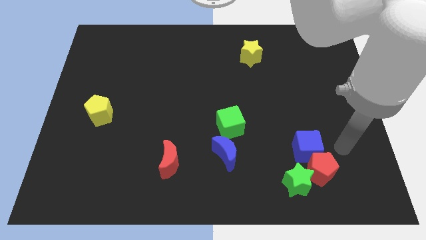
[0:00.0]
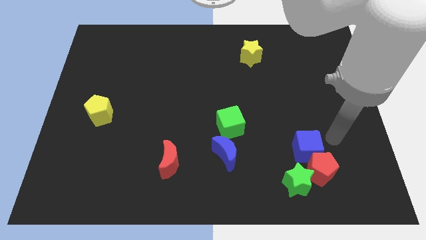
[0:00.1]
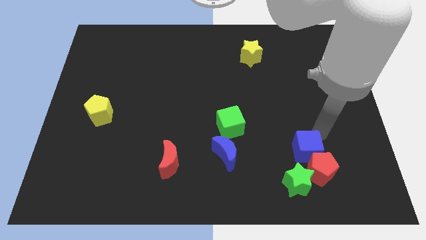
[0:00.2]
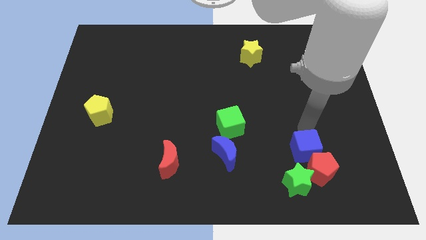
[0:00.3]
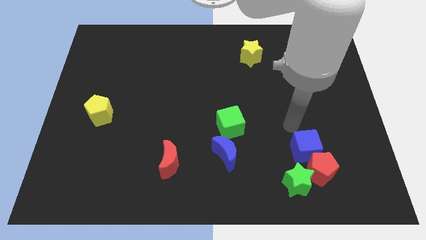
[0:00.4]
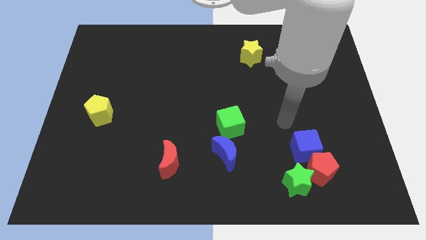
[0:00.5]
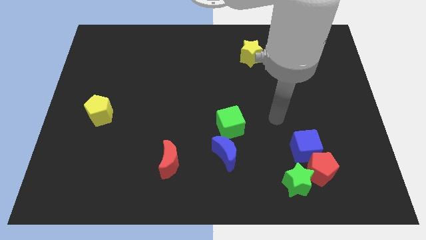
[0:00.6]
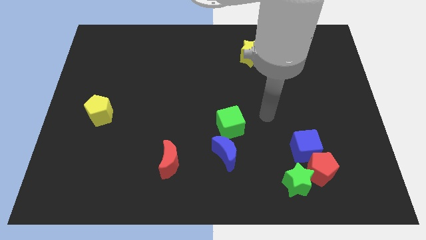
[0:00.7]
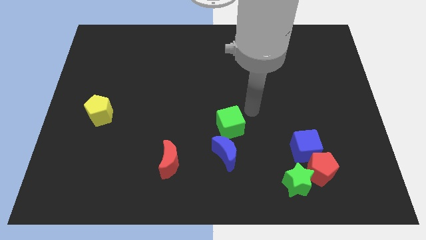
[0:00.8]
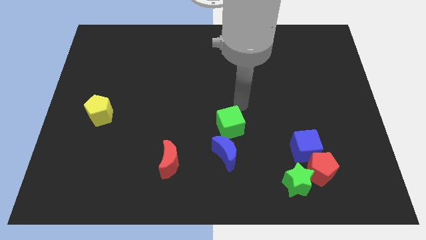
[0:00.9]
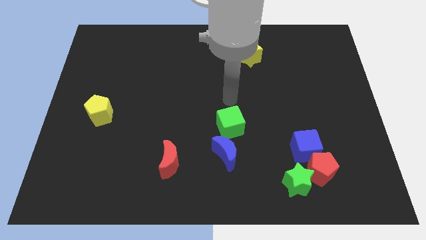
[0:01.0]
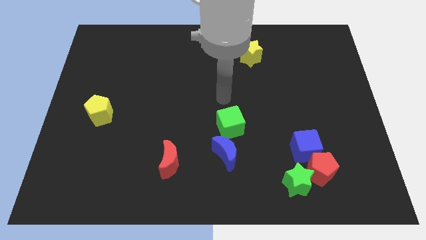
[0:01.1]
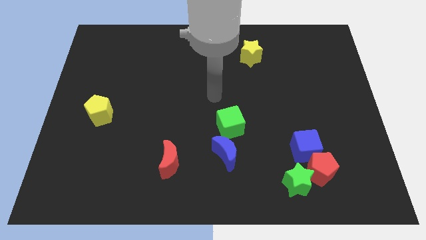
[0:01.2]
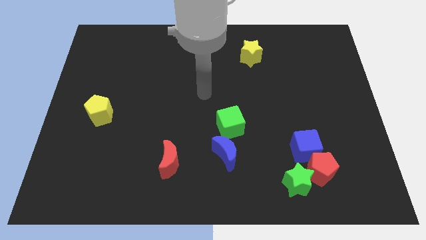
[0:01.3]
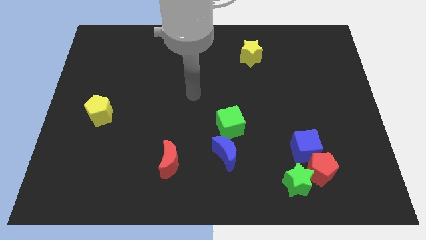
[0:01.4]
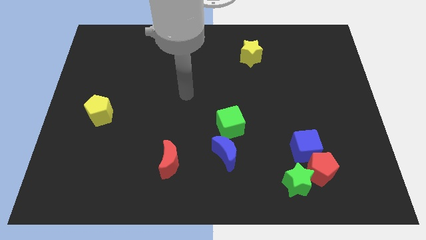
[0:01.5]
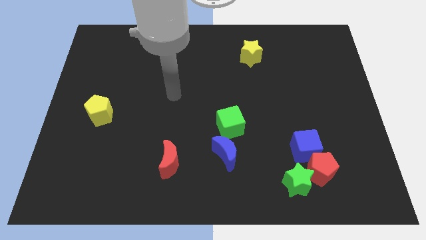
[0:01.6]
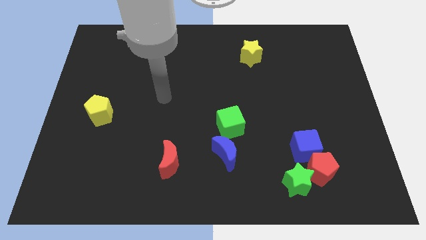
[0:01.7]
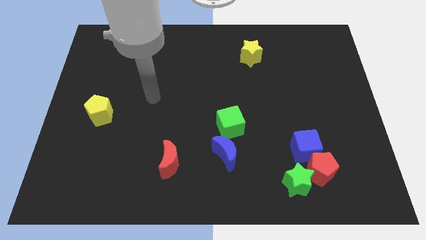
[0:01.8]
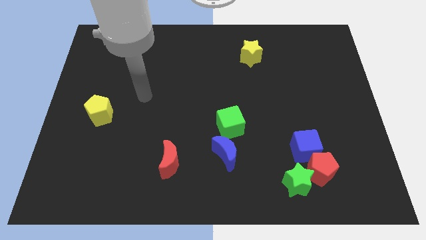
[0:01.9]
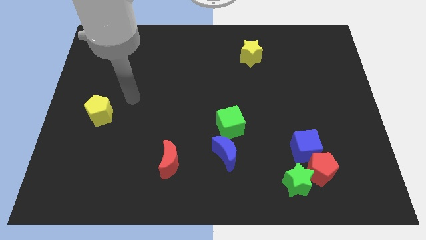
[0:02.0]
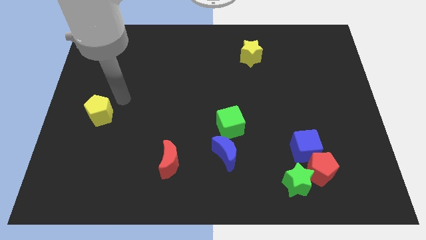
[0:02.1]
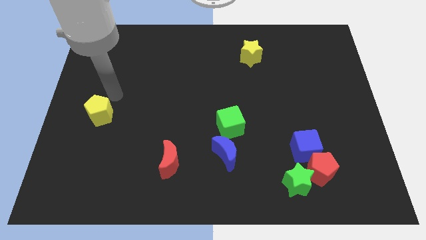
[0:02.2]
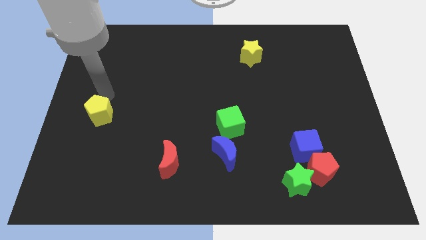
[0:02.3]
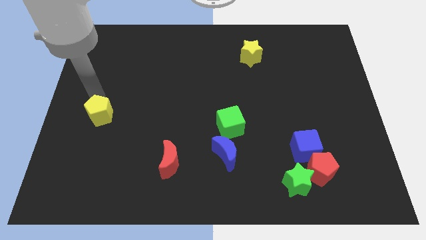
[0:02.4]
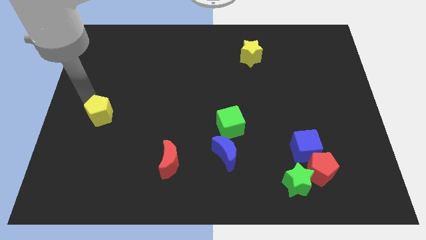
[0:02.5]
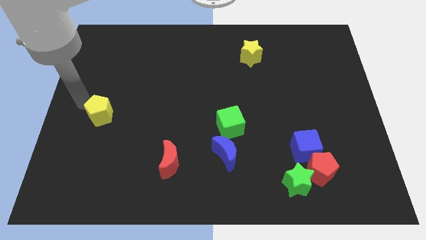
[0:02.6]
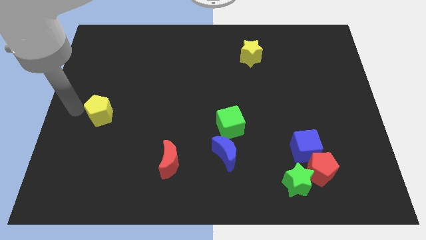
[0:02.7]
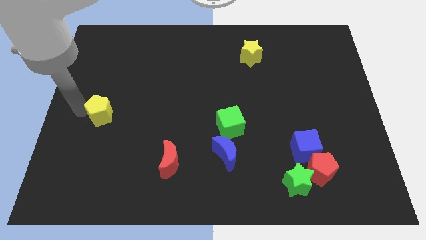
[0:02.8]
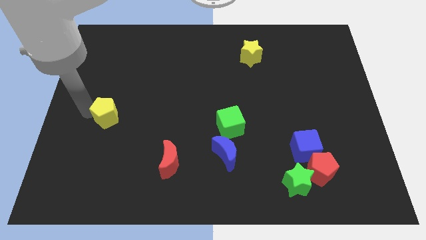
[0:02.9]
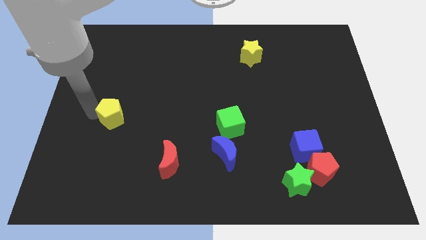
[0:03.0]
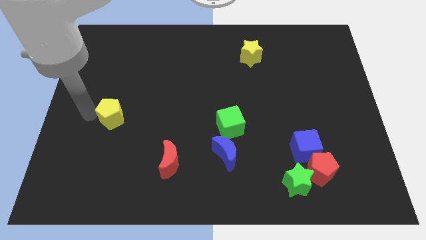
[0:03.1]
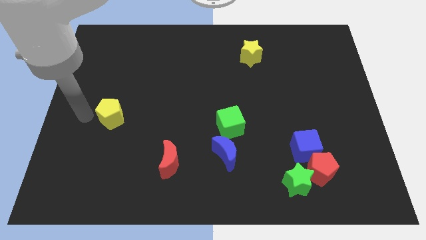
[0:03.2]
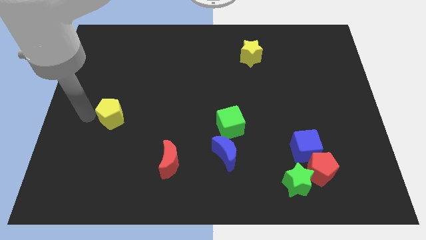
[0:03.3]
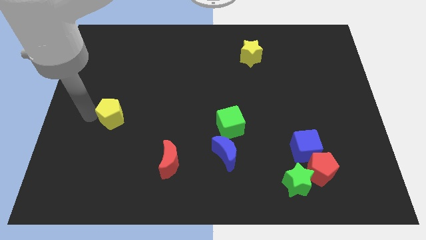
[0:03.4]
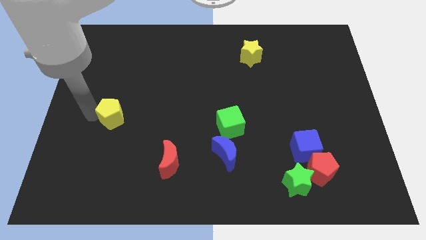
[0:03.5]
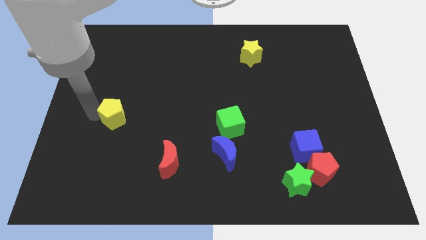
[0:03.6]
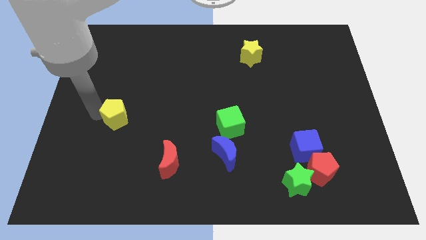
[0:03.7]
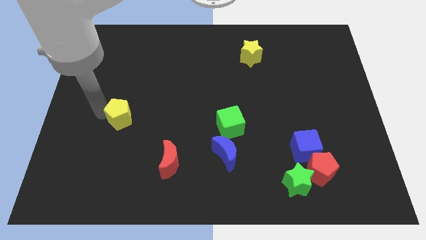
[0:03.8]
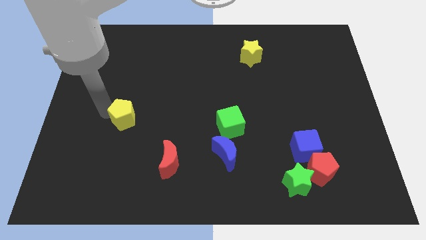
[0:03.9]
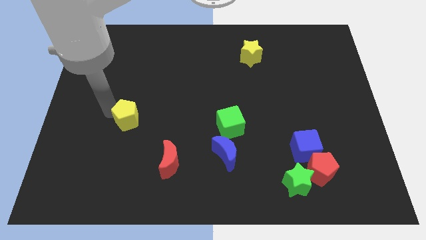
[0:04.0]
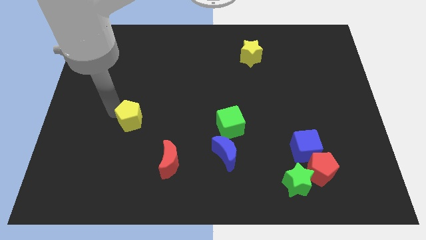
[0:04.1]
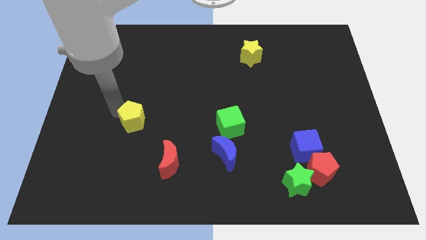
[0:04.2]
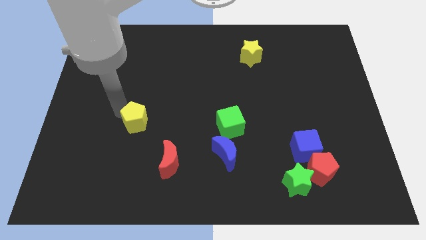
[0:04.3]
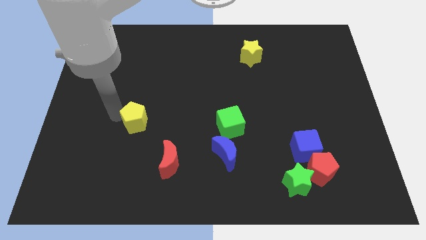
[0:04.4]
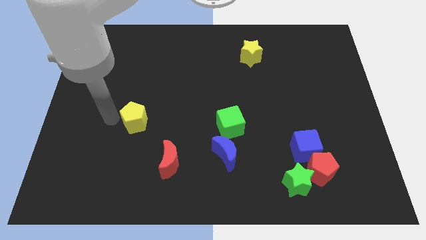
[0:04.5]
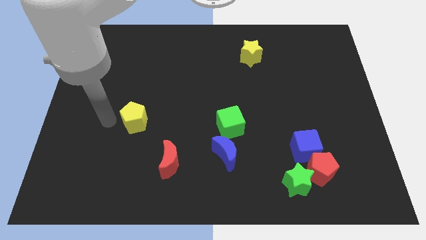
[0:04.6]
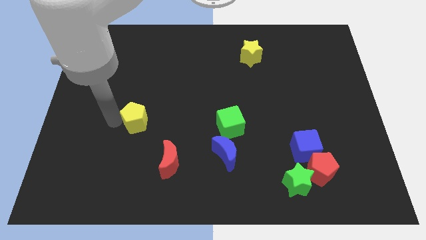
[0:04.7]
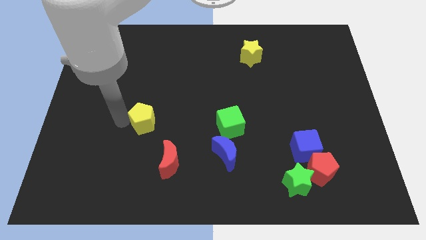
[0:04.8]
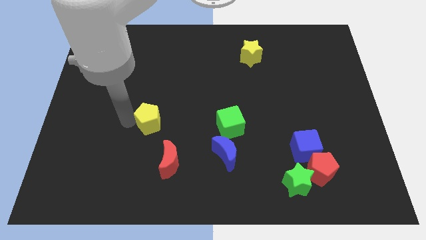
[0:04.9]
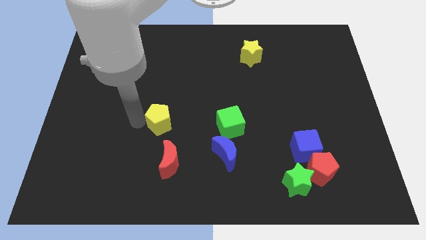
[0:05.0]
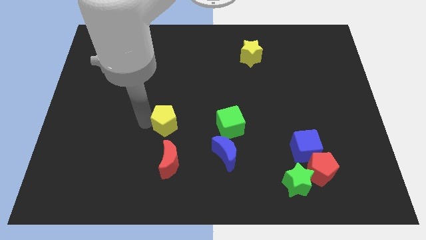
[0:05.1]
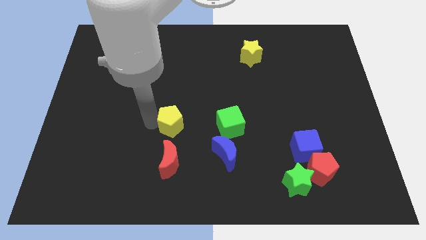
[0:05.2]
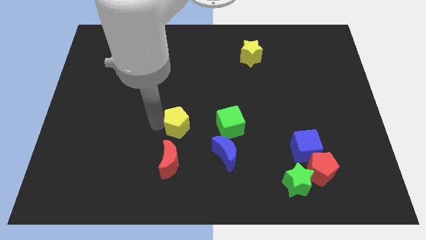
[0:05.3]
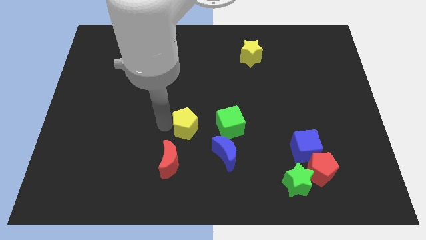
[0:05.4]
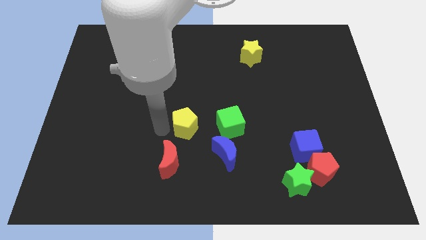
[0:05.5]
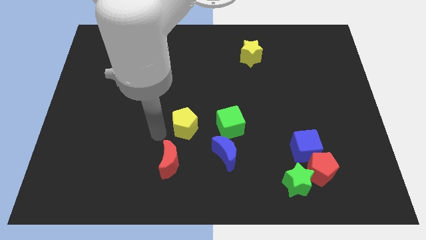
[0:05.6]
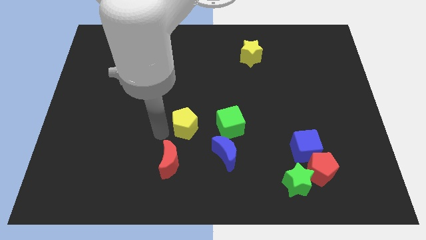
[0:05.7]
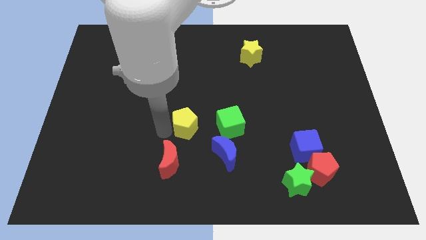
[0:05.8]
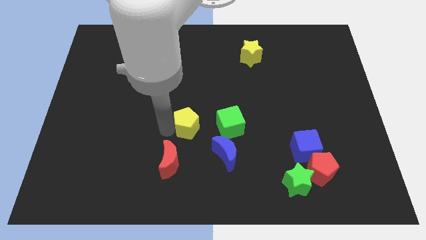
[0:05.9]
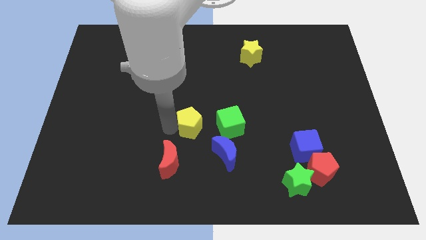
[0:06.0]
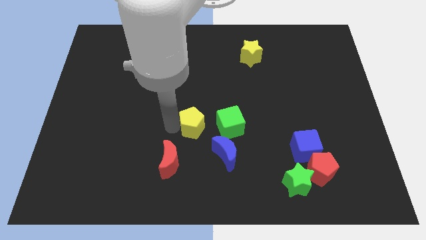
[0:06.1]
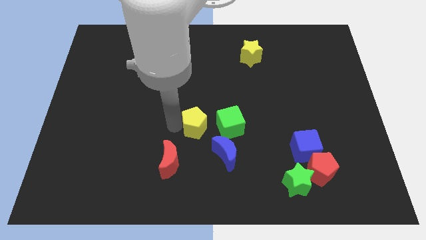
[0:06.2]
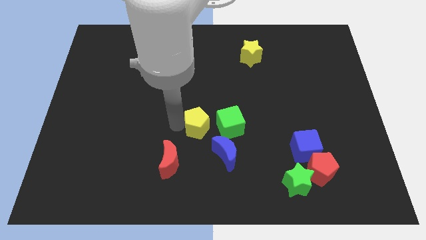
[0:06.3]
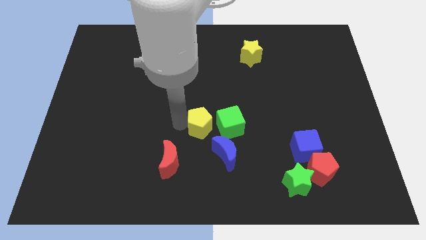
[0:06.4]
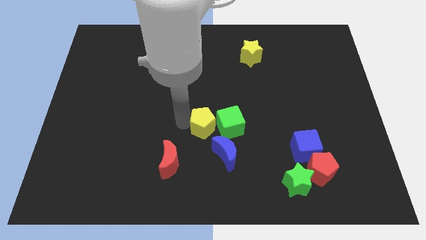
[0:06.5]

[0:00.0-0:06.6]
push the yellow pentagon towards the green cube

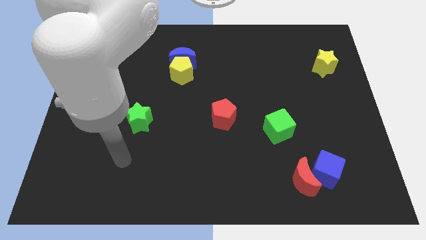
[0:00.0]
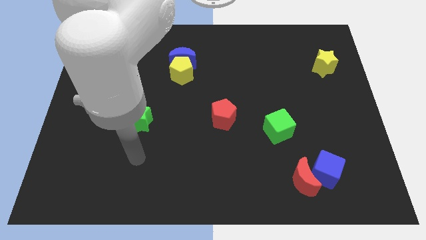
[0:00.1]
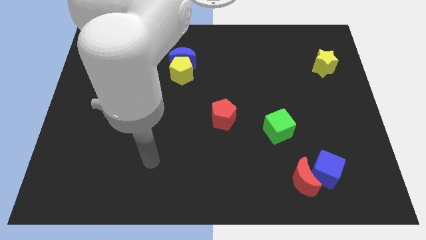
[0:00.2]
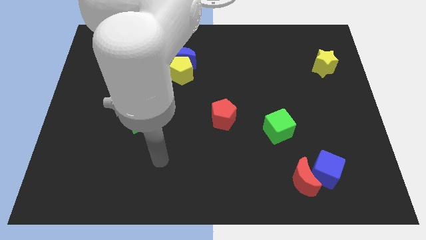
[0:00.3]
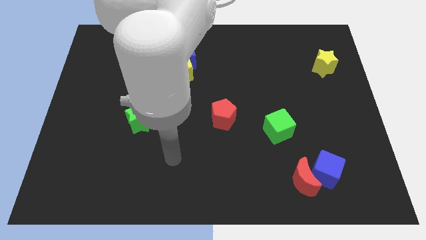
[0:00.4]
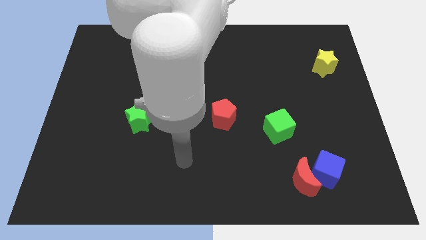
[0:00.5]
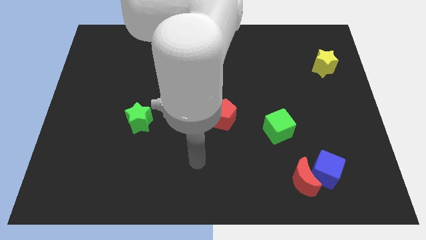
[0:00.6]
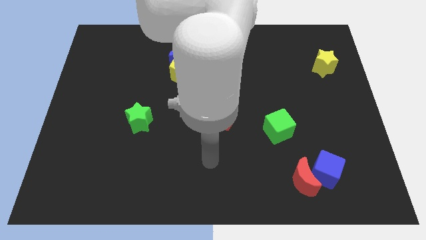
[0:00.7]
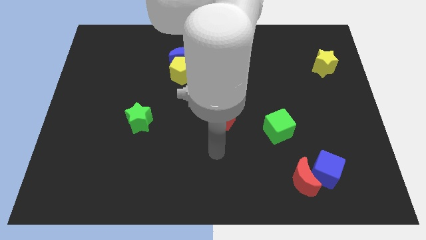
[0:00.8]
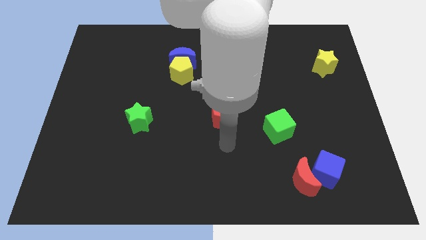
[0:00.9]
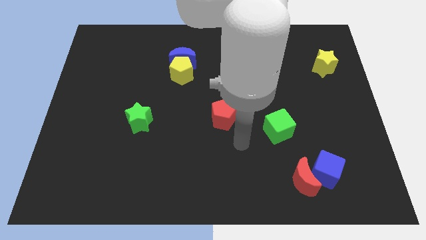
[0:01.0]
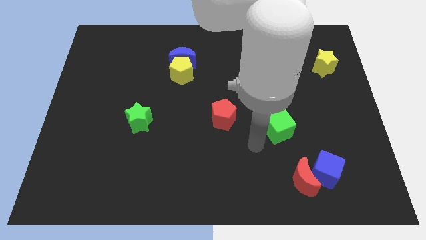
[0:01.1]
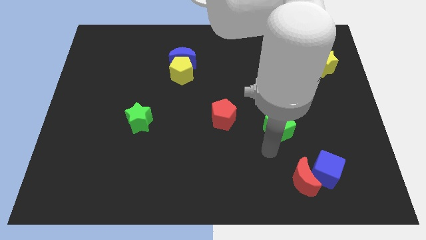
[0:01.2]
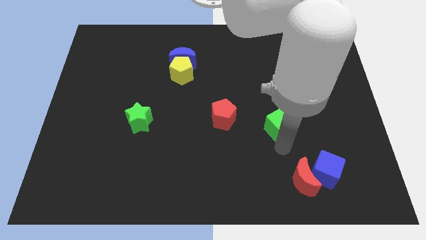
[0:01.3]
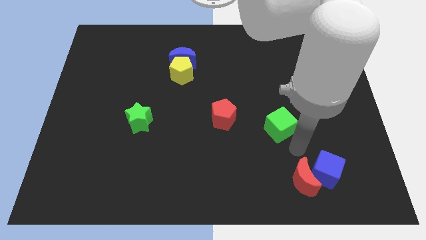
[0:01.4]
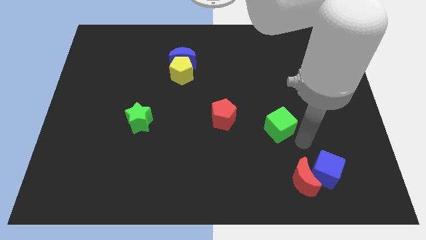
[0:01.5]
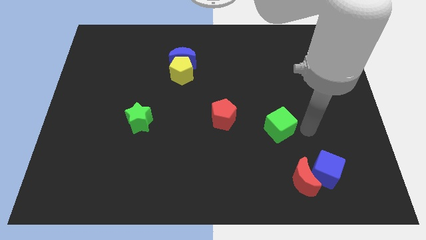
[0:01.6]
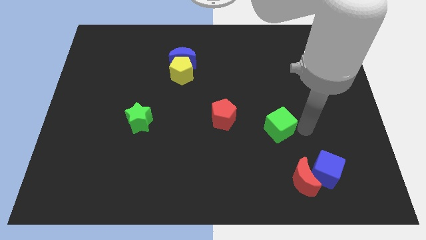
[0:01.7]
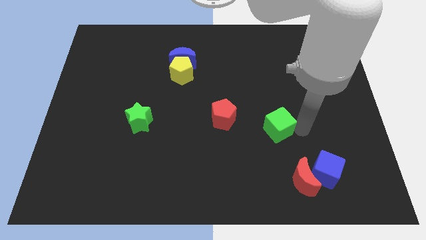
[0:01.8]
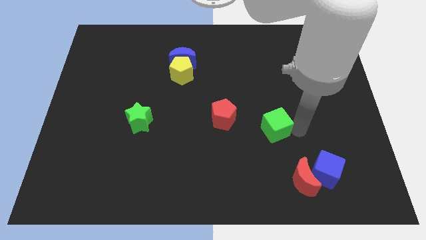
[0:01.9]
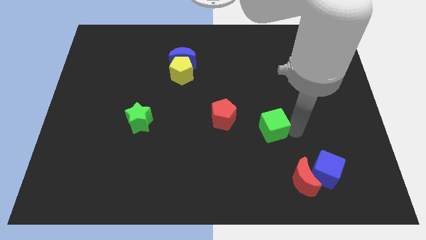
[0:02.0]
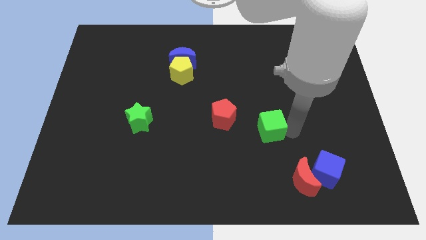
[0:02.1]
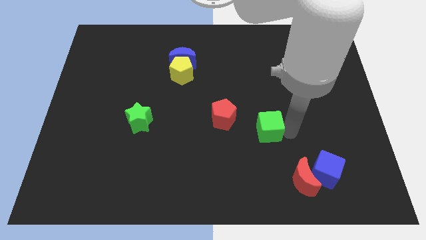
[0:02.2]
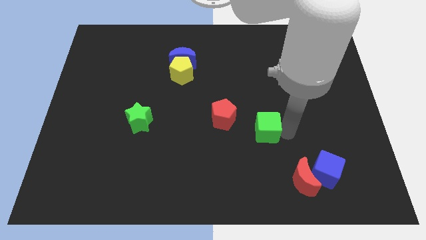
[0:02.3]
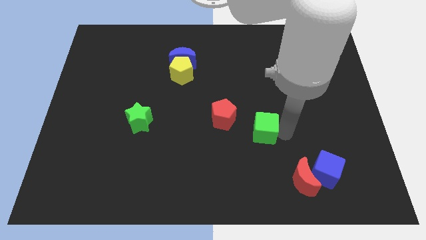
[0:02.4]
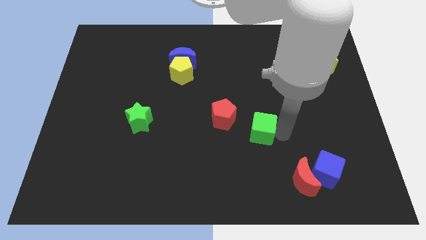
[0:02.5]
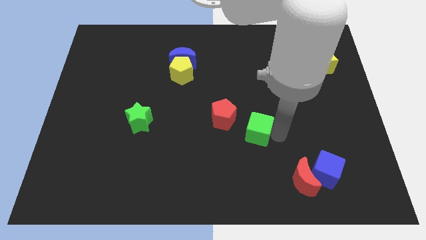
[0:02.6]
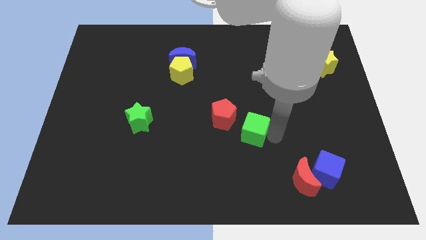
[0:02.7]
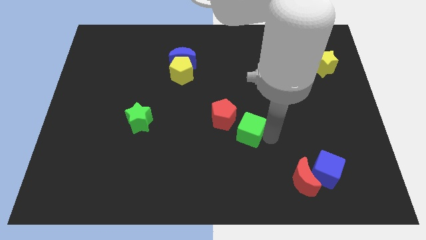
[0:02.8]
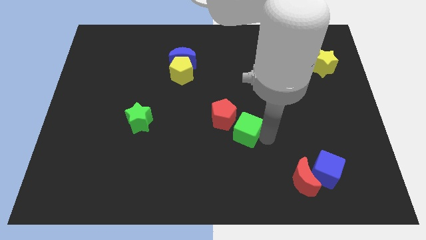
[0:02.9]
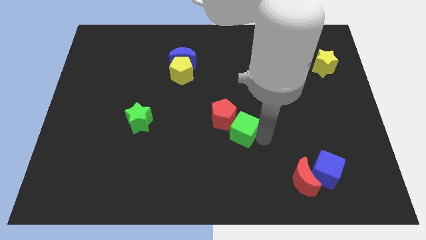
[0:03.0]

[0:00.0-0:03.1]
push the green cube close to the red pentagon
